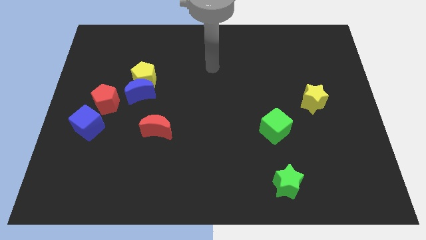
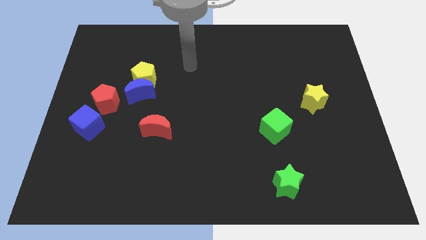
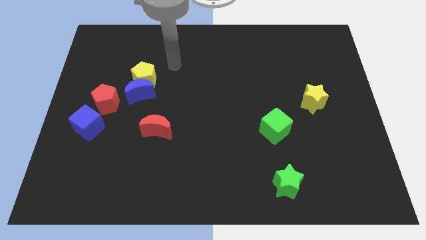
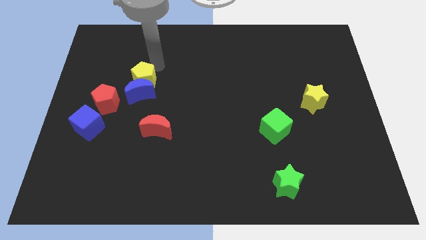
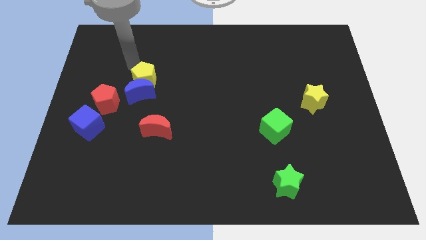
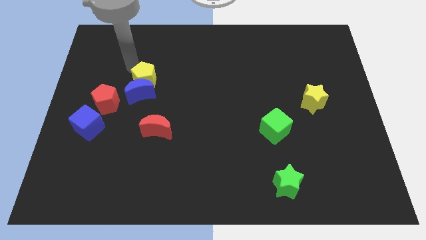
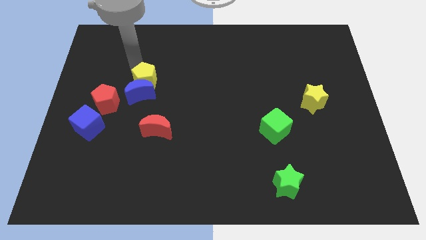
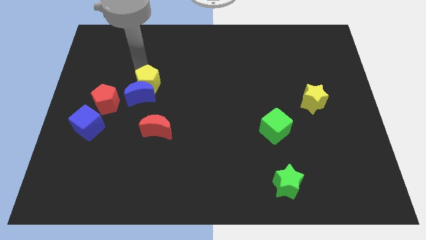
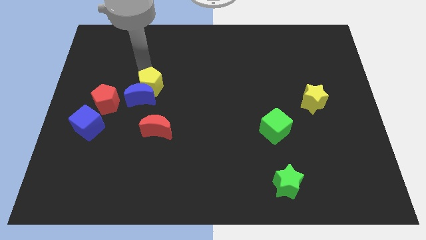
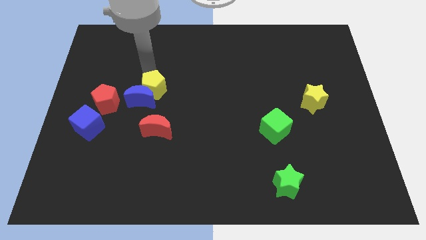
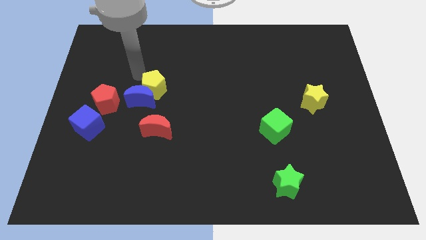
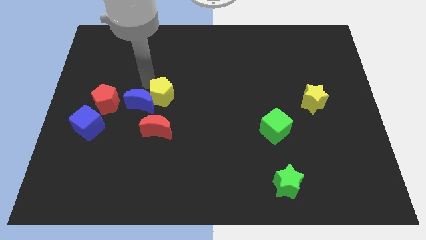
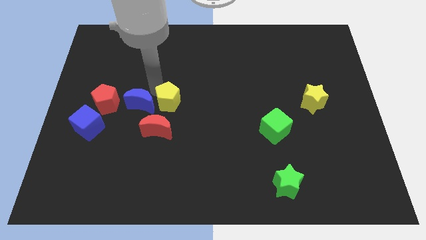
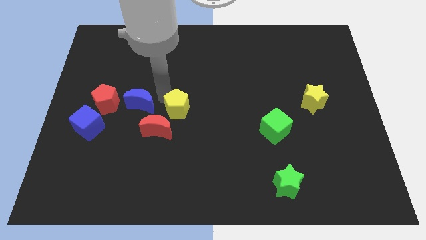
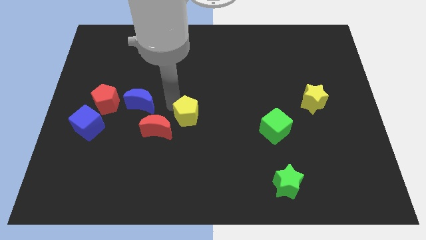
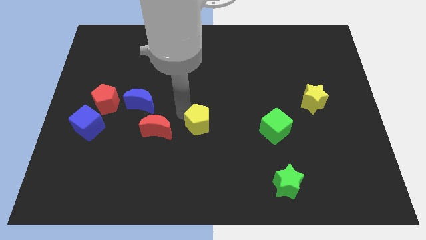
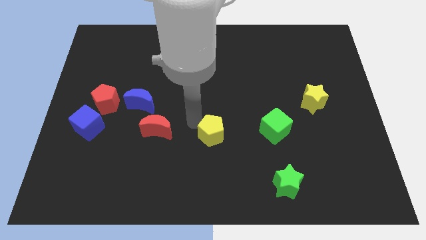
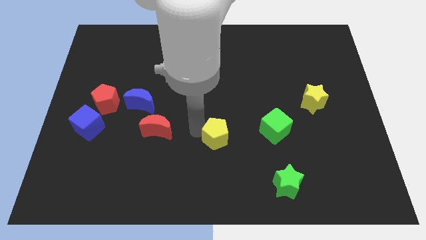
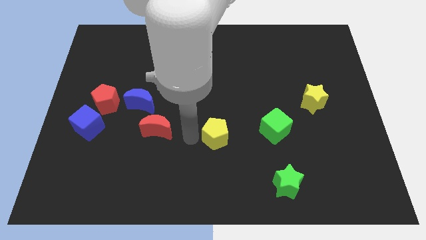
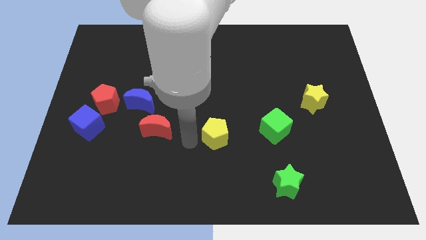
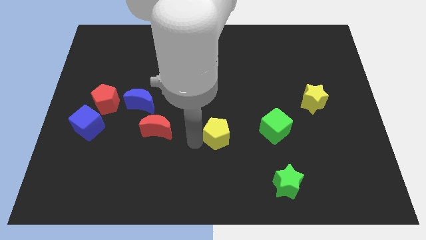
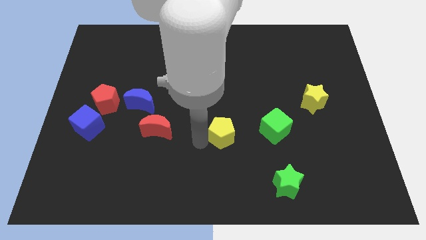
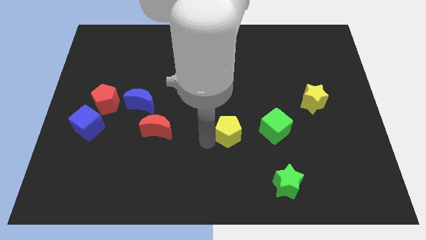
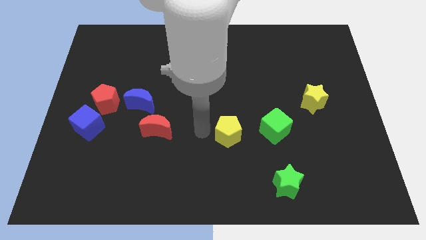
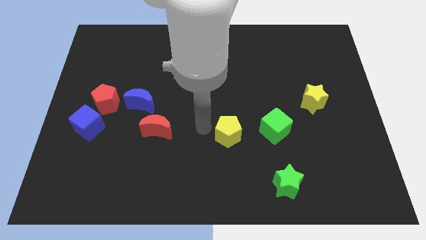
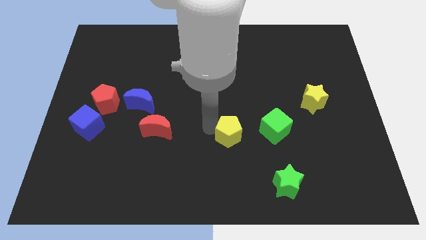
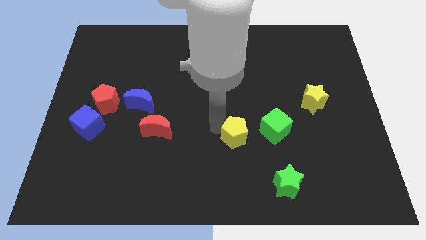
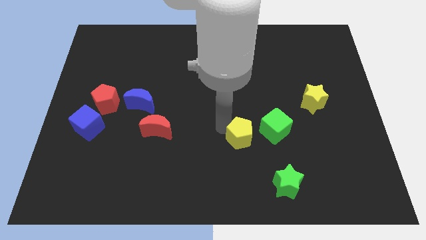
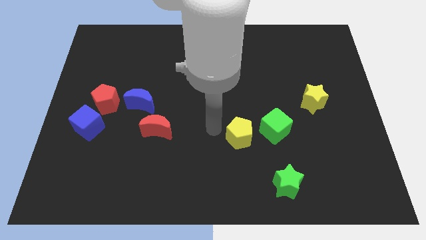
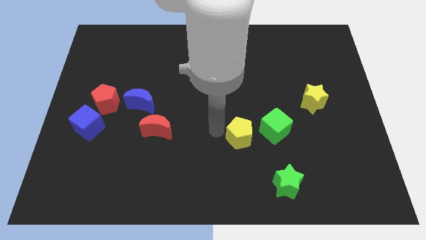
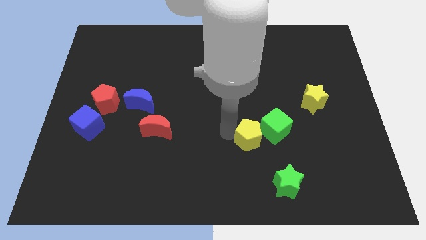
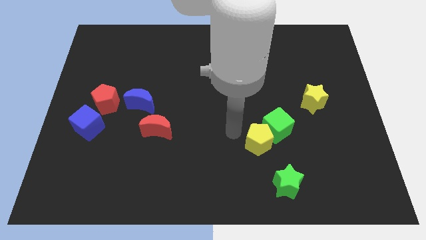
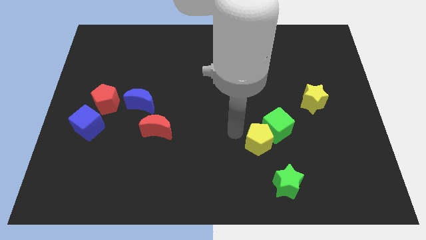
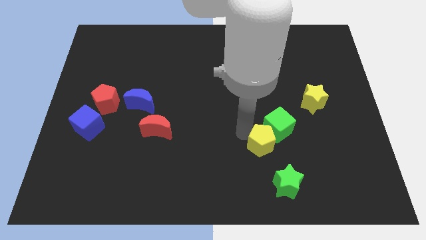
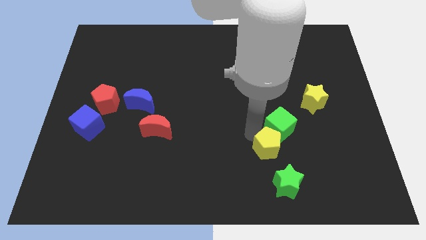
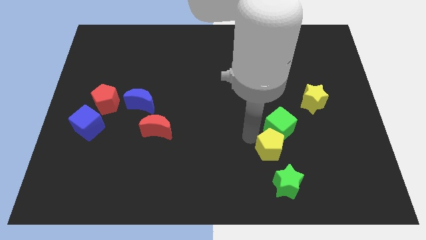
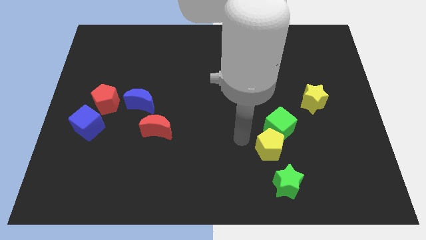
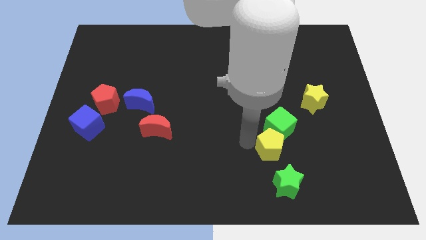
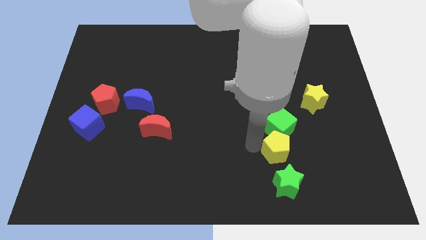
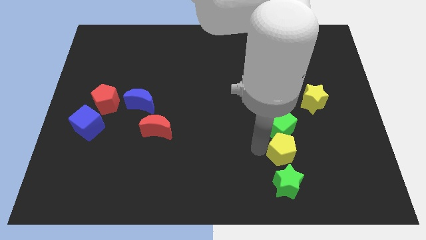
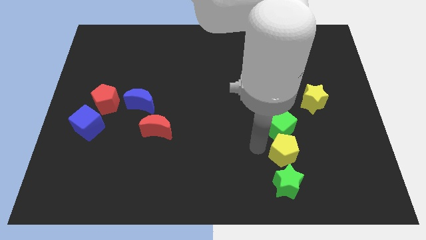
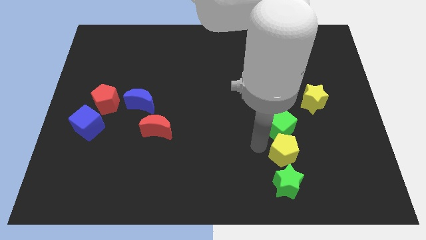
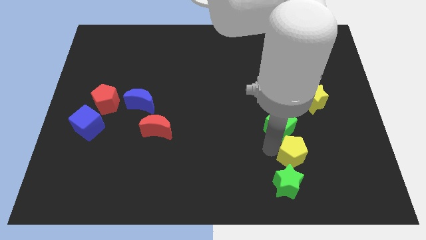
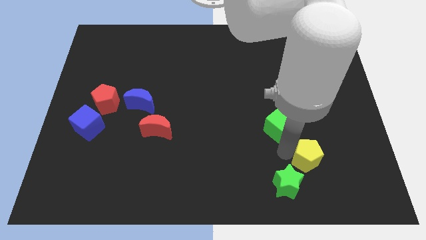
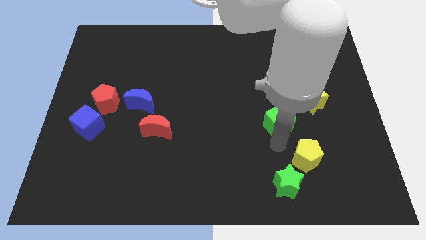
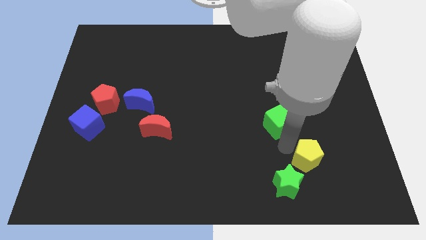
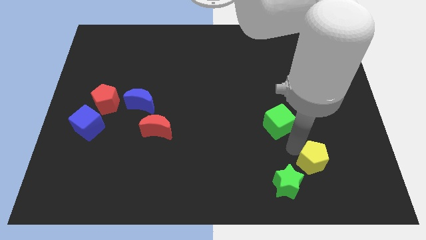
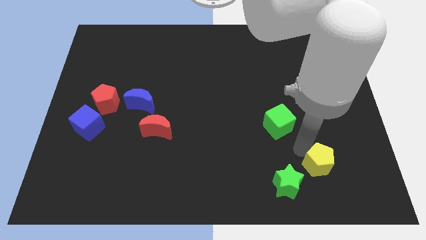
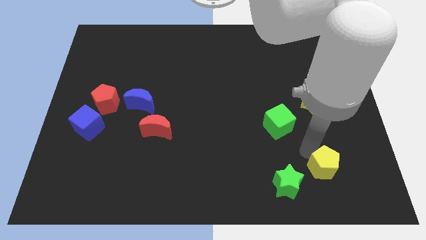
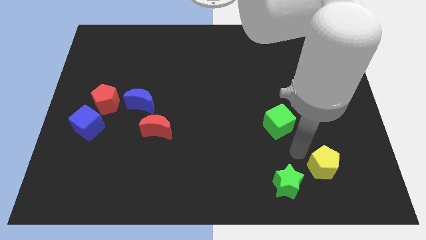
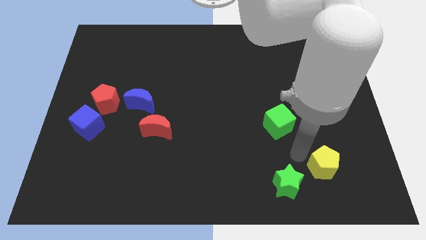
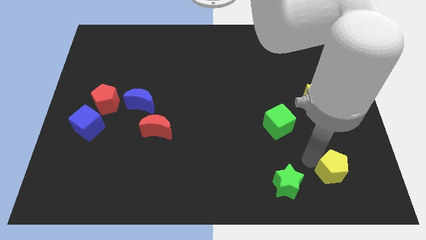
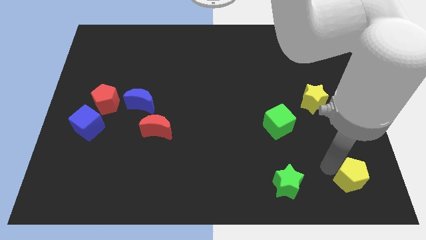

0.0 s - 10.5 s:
push the yellow pentagon to the lower right corner

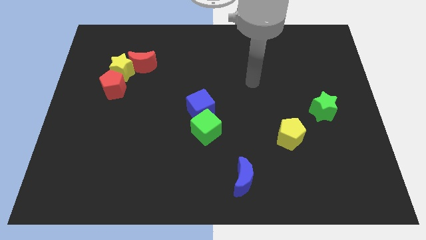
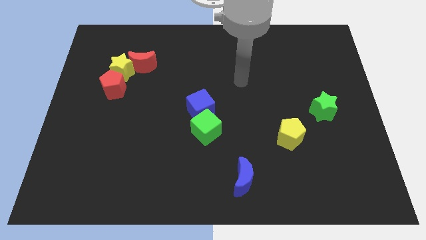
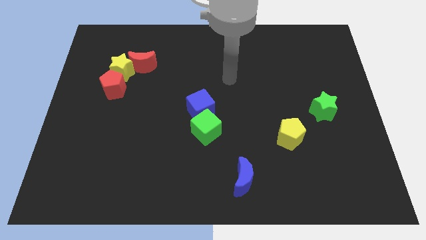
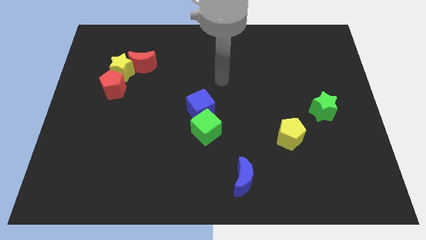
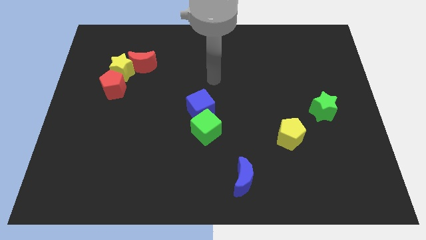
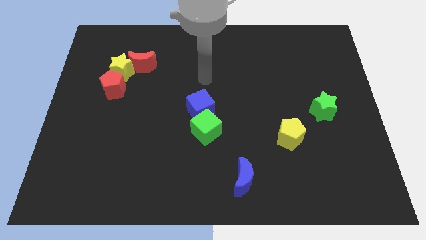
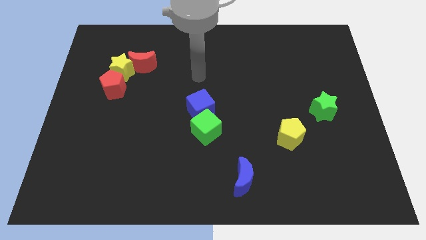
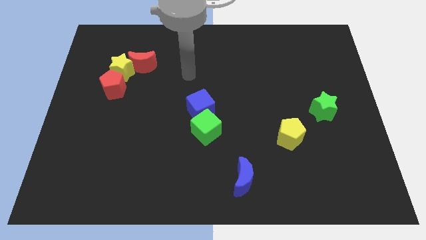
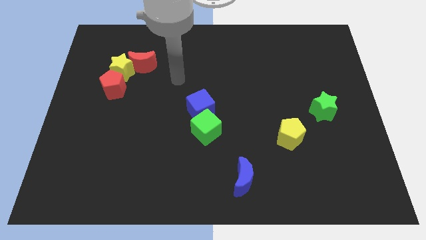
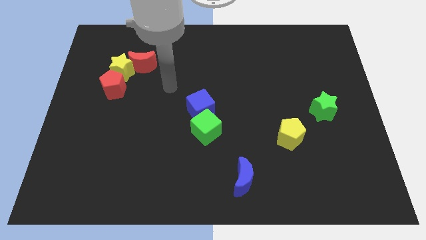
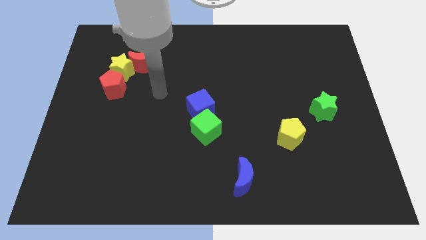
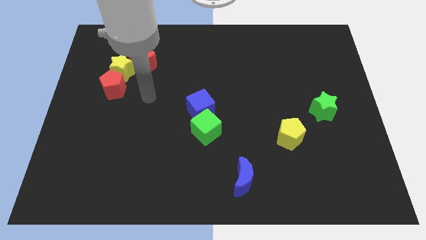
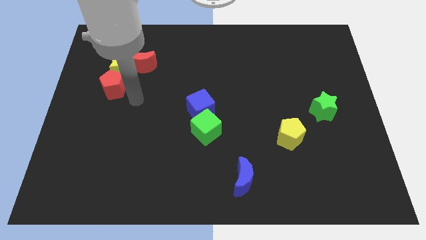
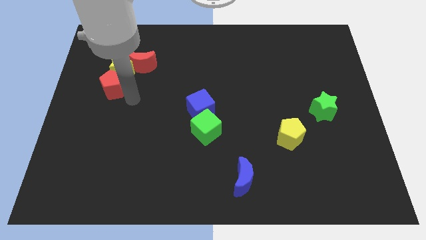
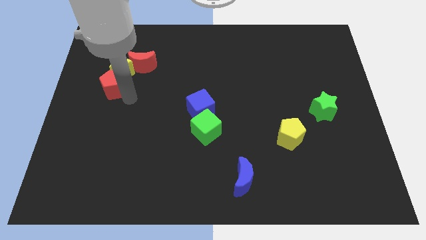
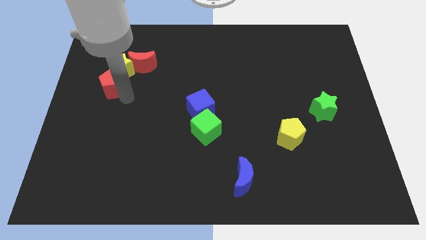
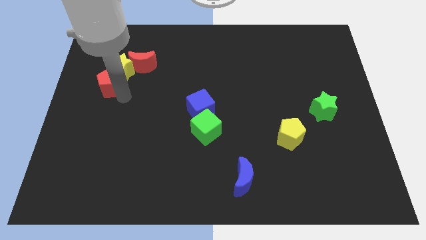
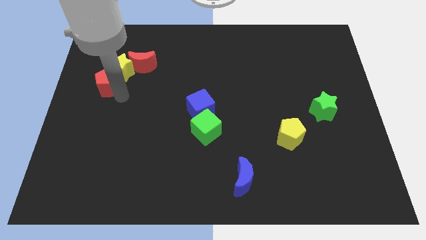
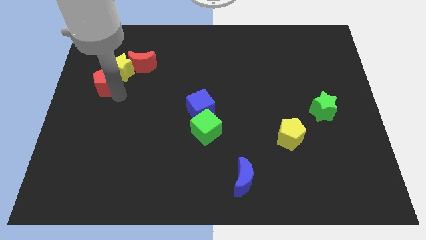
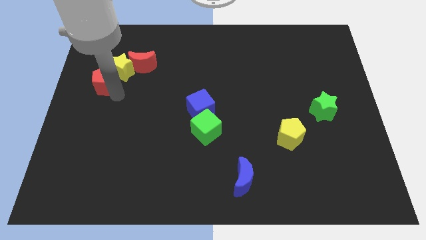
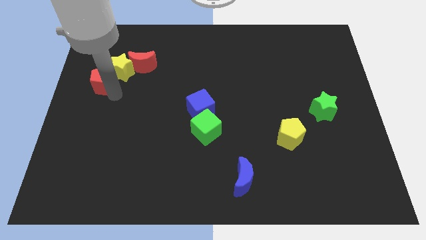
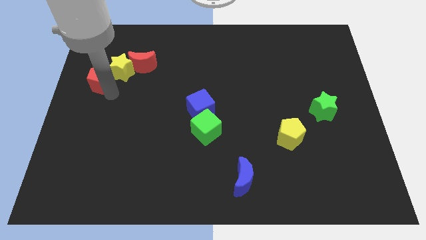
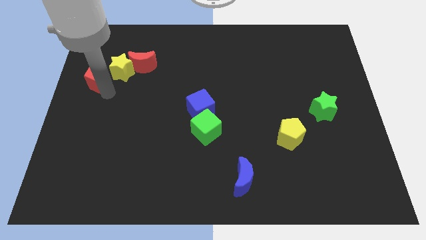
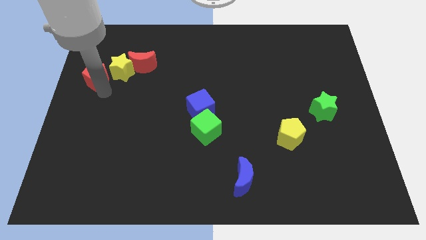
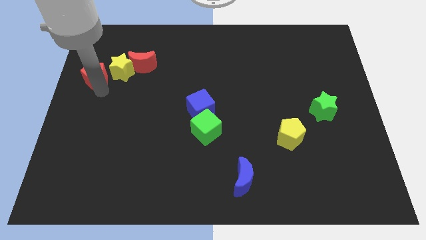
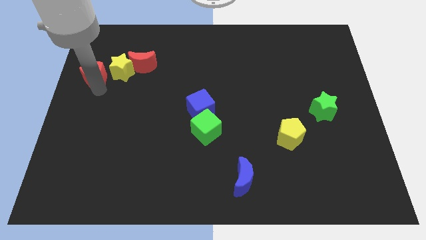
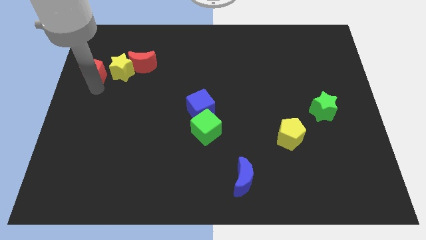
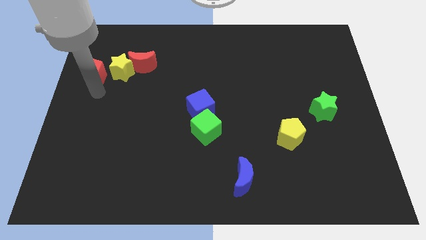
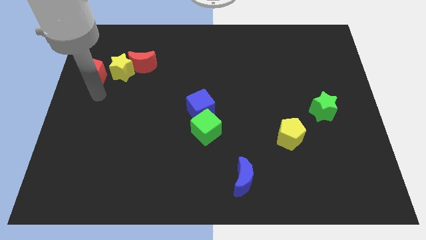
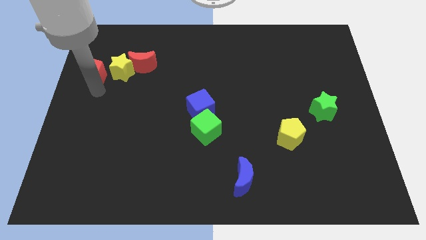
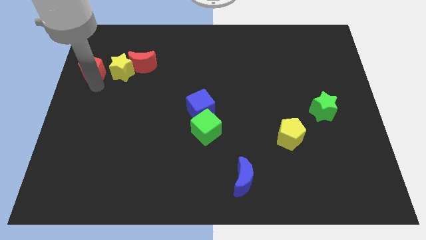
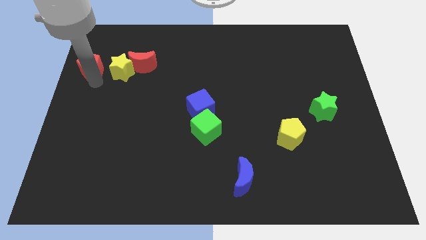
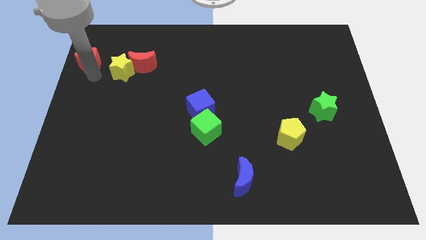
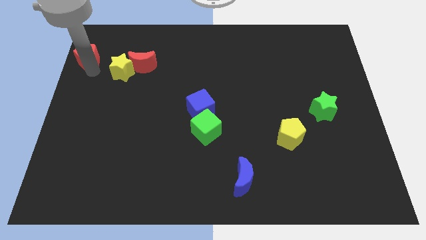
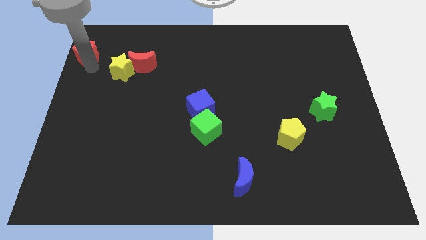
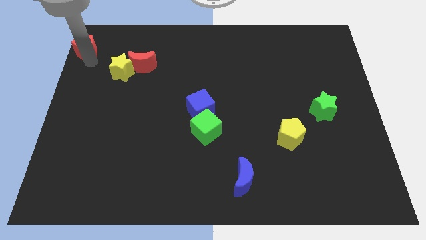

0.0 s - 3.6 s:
slide the red pentagon to the top left
